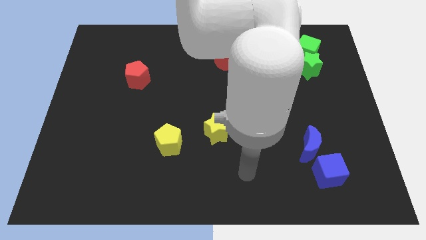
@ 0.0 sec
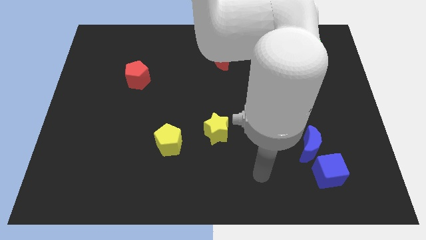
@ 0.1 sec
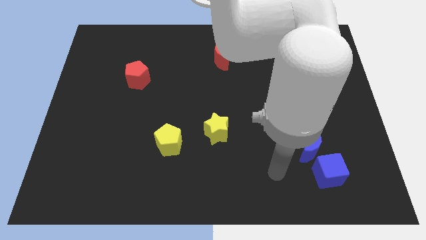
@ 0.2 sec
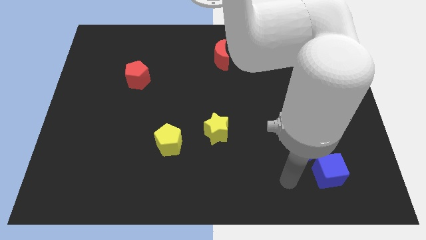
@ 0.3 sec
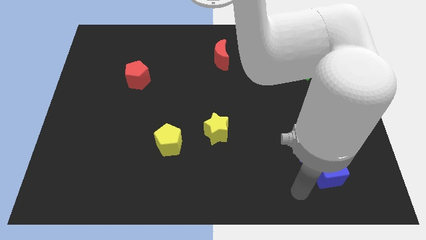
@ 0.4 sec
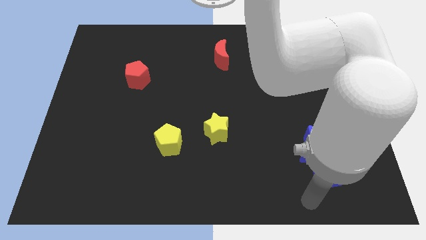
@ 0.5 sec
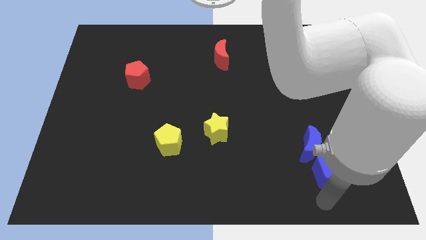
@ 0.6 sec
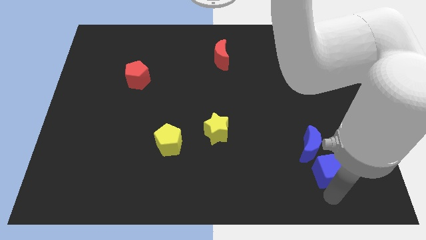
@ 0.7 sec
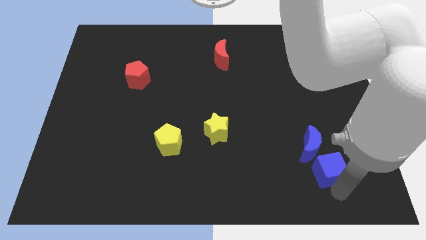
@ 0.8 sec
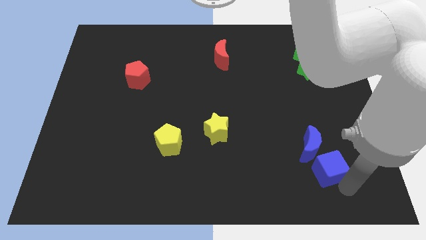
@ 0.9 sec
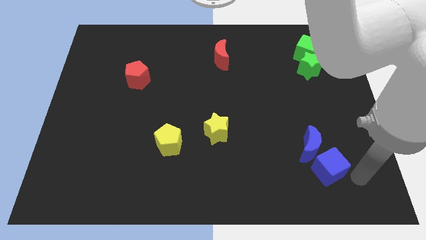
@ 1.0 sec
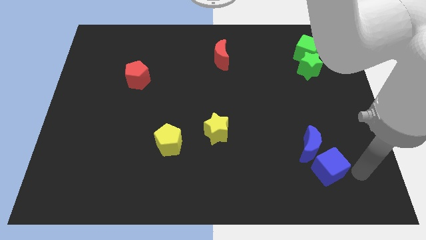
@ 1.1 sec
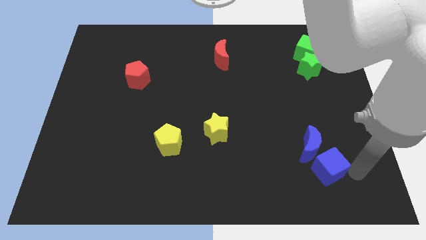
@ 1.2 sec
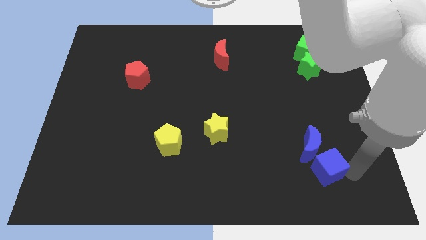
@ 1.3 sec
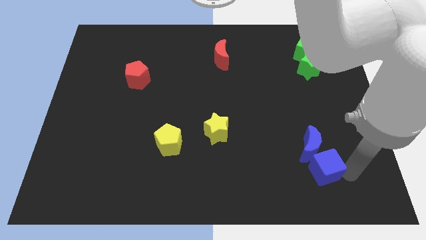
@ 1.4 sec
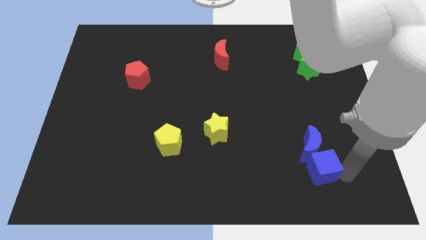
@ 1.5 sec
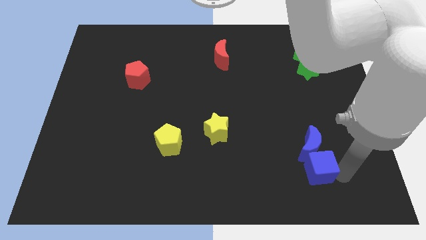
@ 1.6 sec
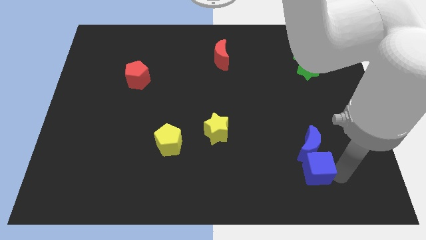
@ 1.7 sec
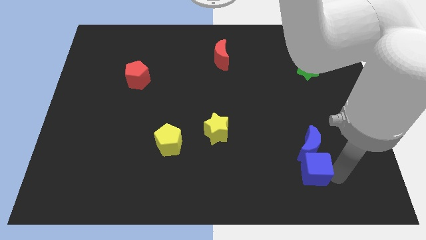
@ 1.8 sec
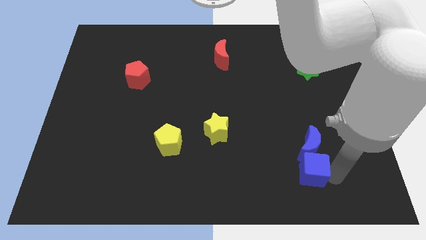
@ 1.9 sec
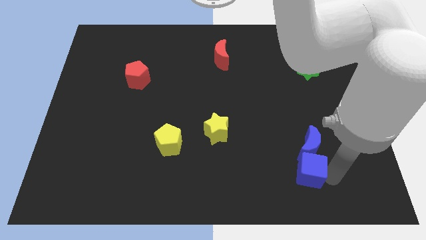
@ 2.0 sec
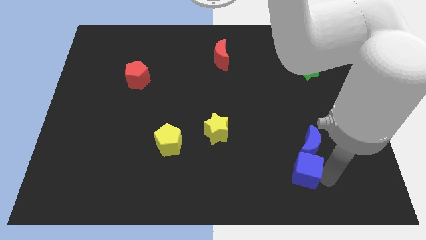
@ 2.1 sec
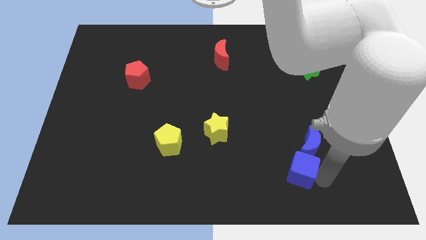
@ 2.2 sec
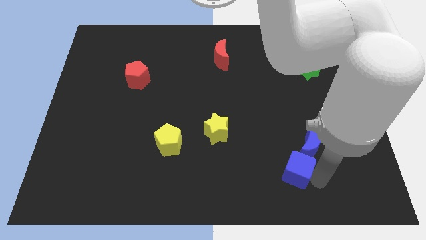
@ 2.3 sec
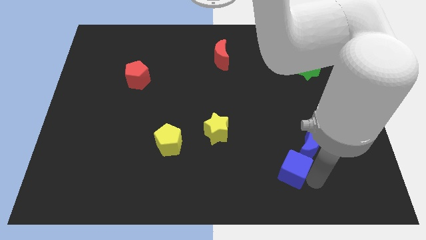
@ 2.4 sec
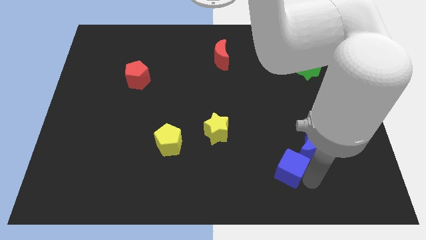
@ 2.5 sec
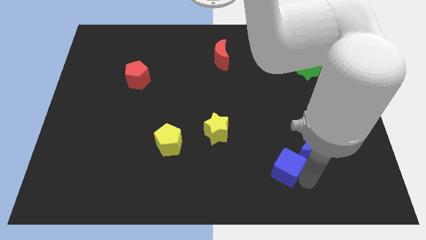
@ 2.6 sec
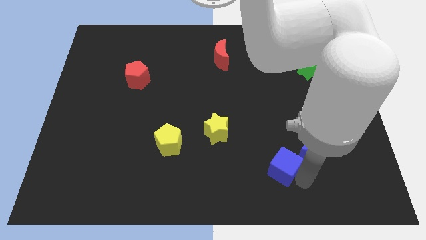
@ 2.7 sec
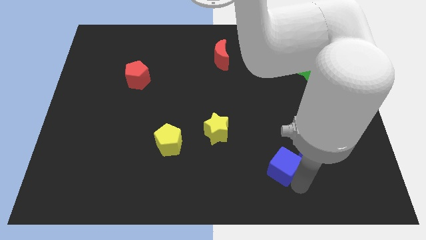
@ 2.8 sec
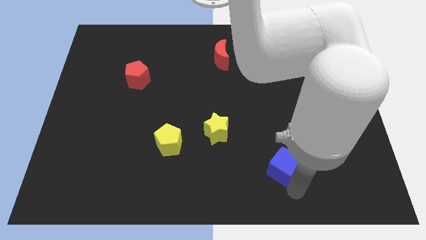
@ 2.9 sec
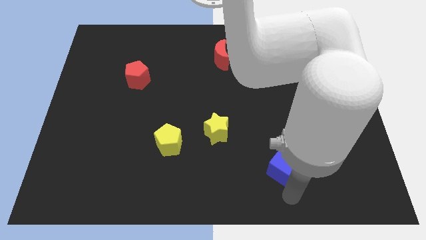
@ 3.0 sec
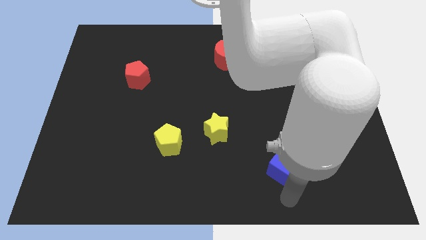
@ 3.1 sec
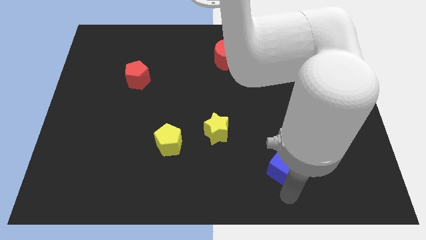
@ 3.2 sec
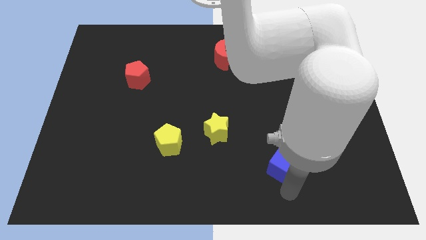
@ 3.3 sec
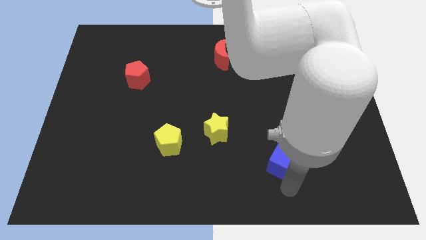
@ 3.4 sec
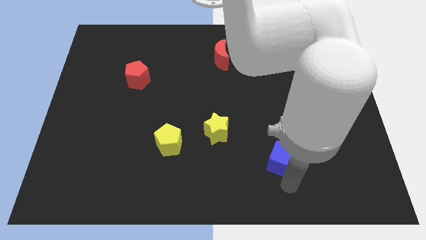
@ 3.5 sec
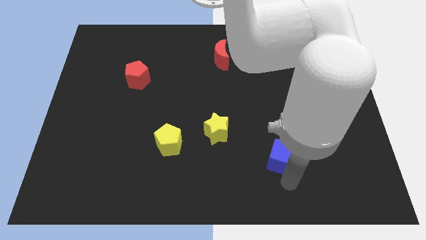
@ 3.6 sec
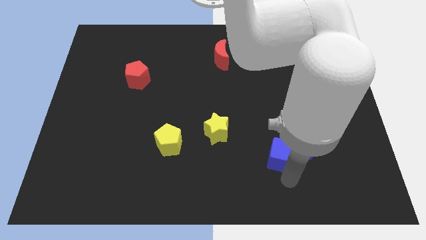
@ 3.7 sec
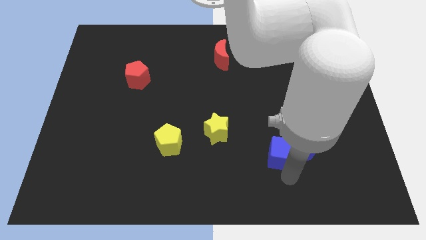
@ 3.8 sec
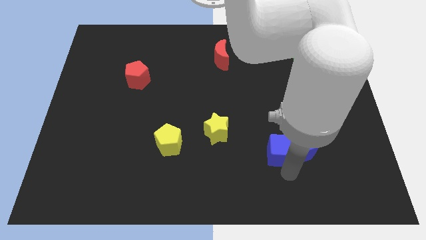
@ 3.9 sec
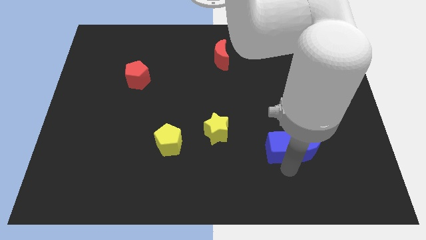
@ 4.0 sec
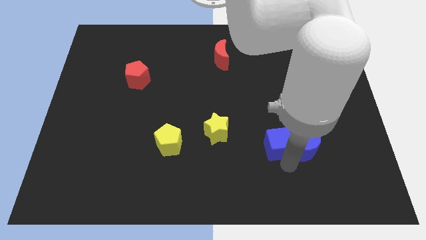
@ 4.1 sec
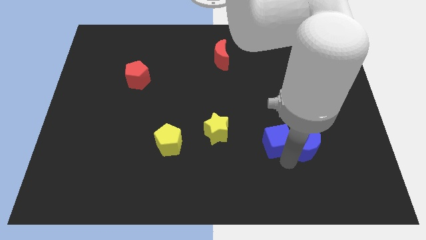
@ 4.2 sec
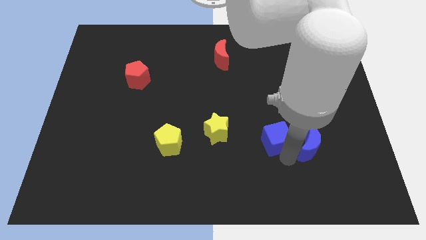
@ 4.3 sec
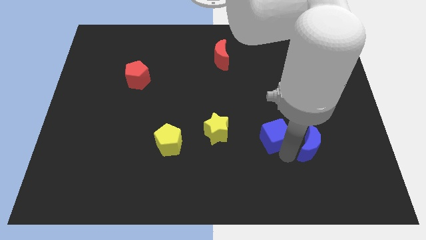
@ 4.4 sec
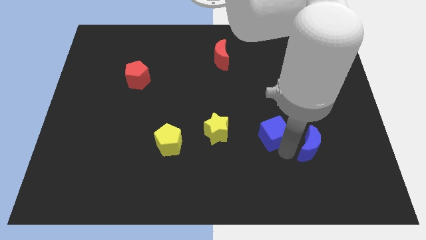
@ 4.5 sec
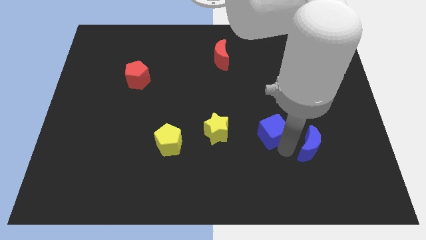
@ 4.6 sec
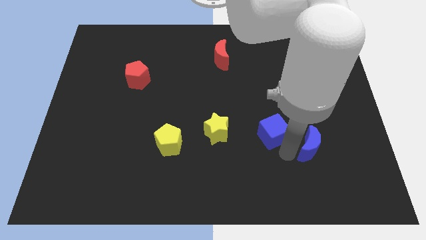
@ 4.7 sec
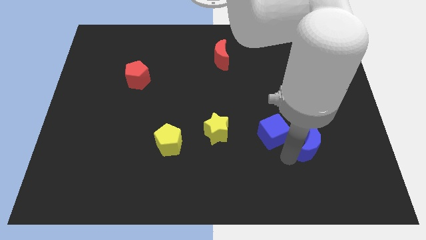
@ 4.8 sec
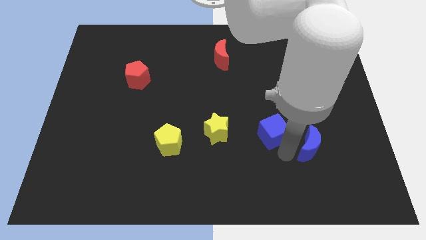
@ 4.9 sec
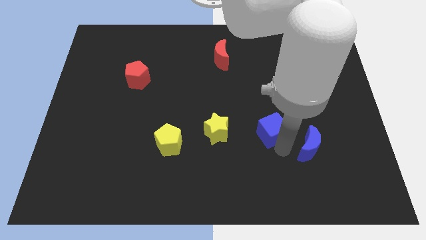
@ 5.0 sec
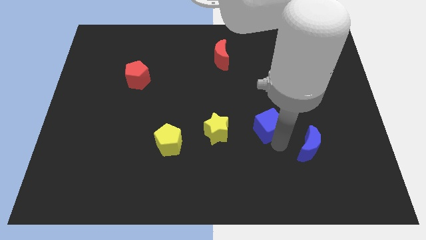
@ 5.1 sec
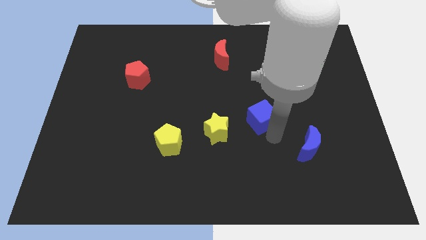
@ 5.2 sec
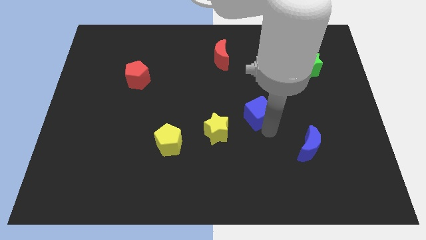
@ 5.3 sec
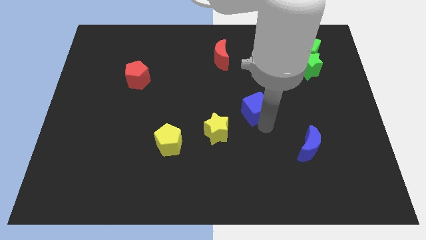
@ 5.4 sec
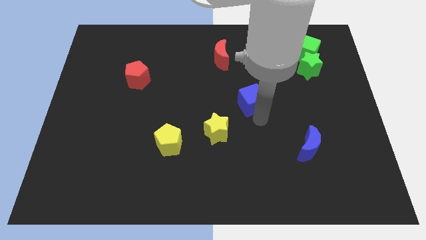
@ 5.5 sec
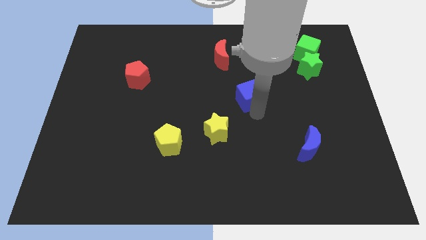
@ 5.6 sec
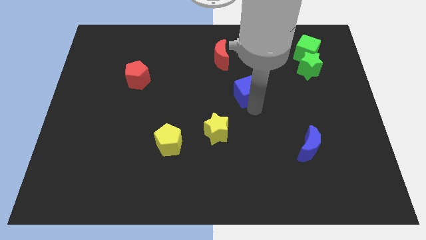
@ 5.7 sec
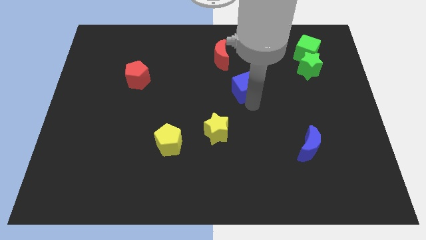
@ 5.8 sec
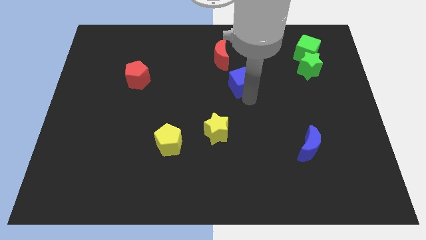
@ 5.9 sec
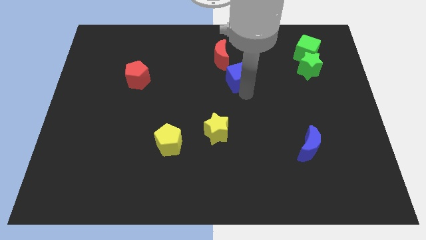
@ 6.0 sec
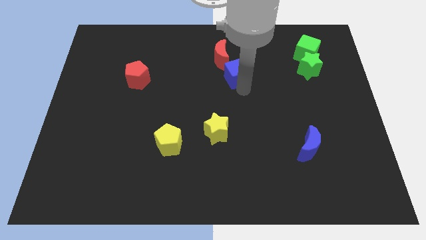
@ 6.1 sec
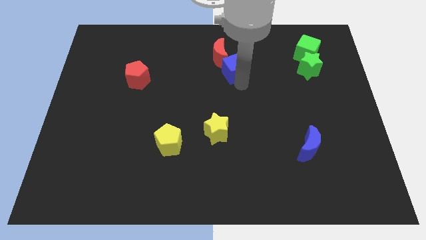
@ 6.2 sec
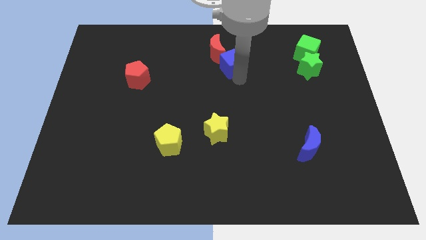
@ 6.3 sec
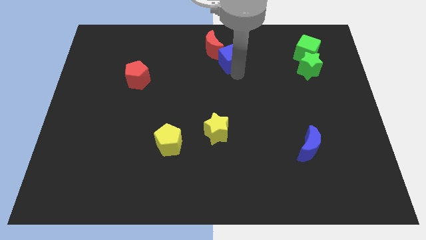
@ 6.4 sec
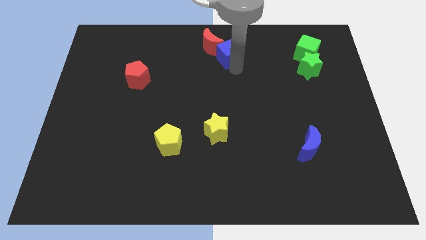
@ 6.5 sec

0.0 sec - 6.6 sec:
move the blue cube towards the red moon
